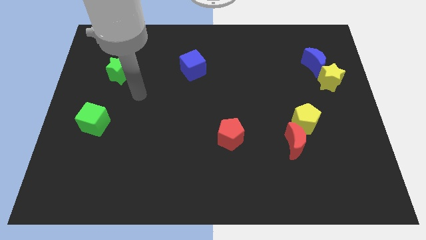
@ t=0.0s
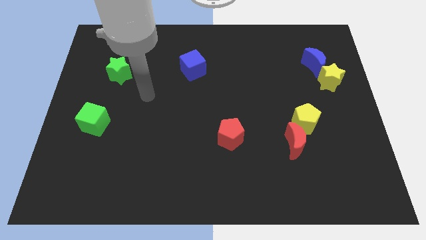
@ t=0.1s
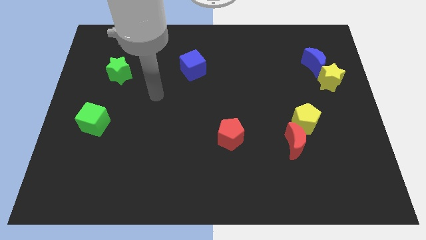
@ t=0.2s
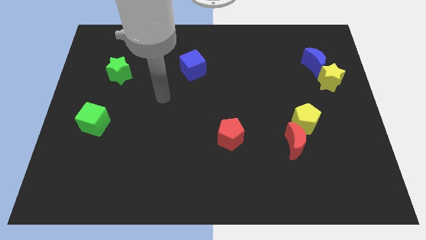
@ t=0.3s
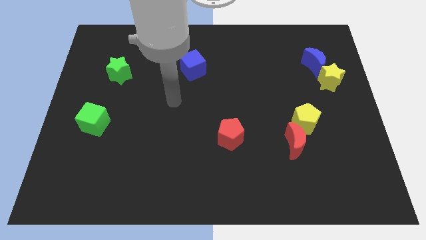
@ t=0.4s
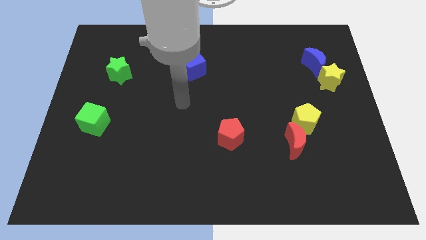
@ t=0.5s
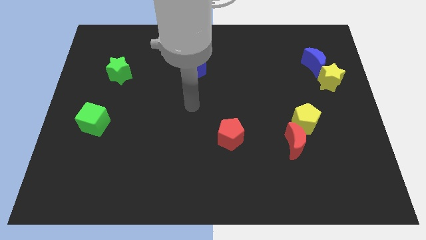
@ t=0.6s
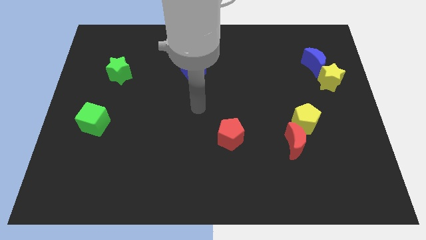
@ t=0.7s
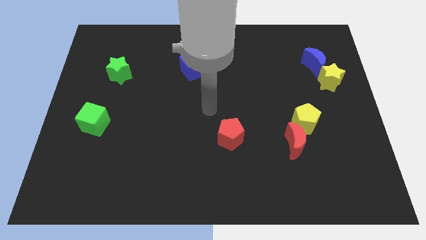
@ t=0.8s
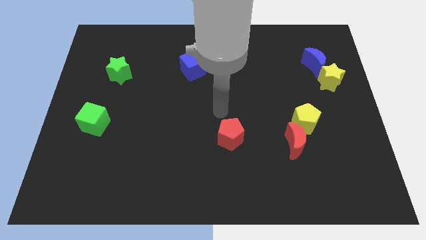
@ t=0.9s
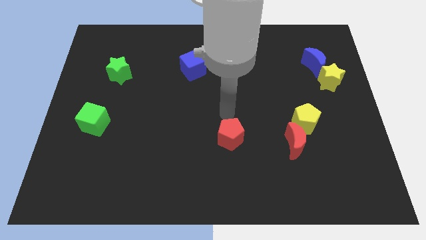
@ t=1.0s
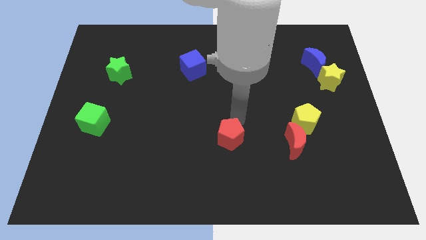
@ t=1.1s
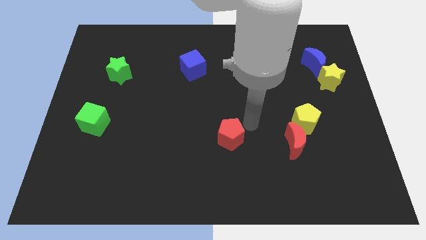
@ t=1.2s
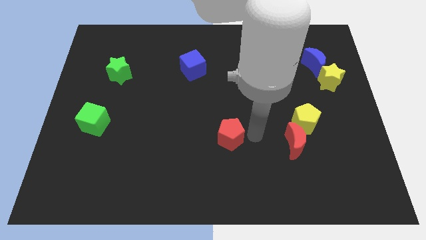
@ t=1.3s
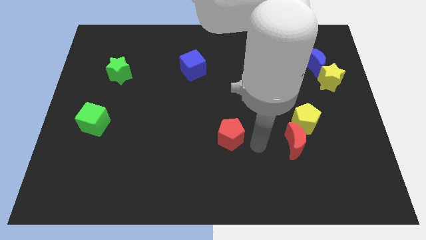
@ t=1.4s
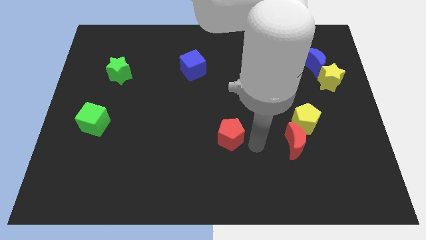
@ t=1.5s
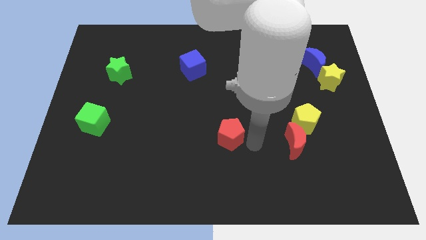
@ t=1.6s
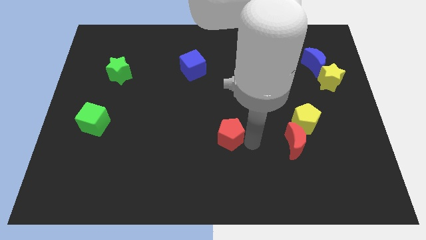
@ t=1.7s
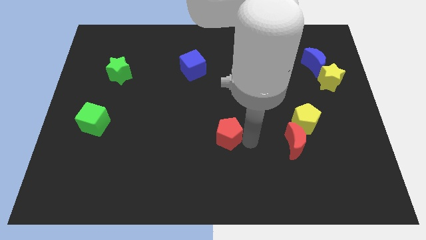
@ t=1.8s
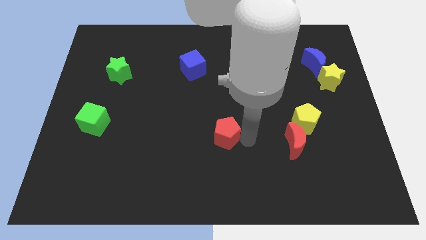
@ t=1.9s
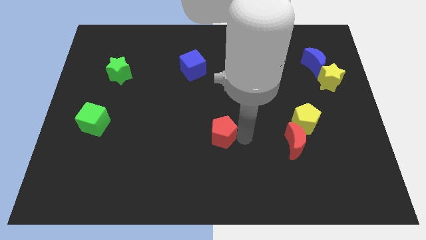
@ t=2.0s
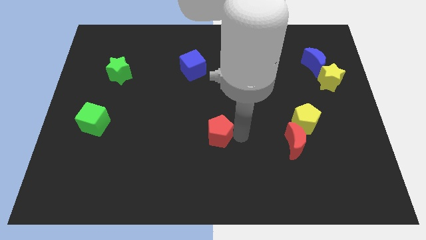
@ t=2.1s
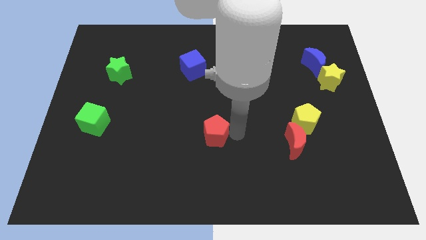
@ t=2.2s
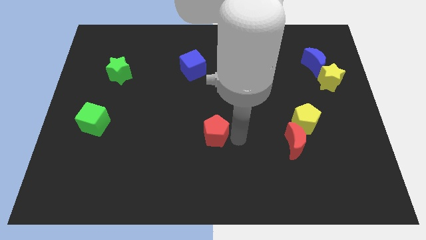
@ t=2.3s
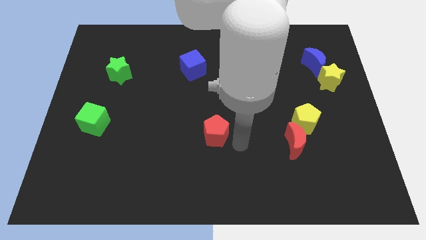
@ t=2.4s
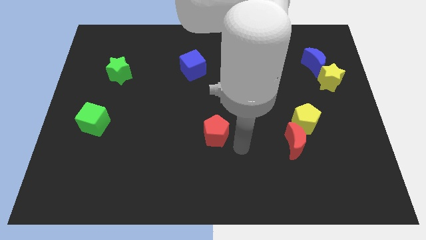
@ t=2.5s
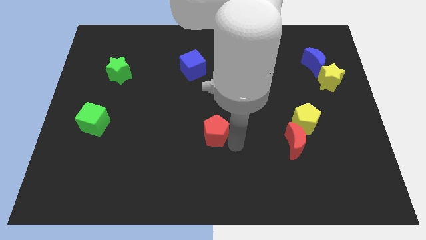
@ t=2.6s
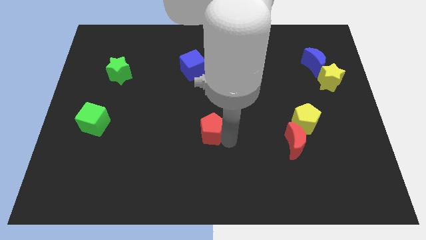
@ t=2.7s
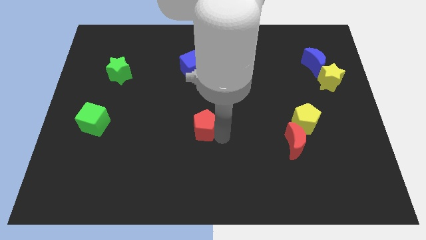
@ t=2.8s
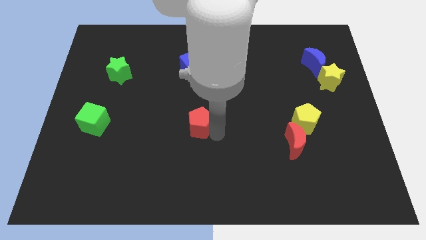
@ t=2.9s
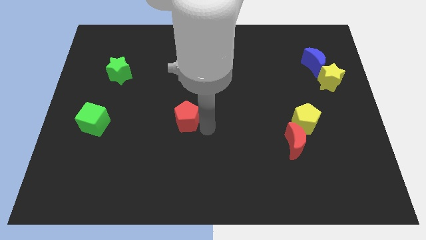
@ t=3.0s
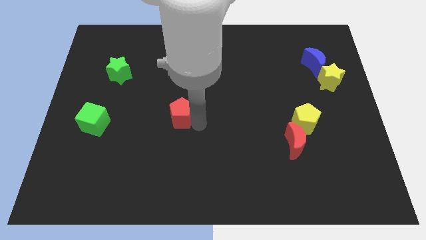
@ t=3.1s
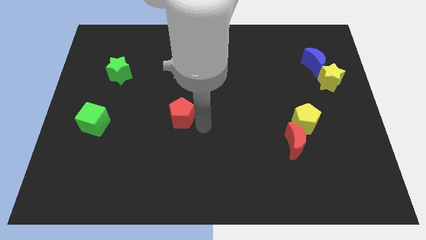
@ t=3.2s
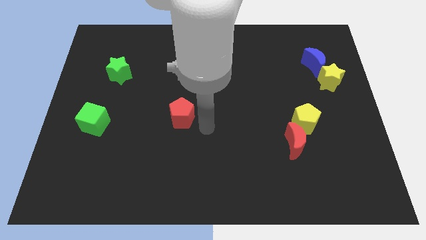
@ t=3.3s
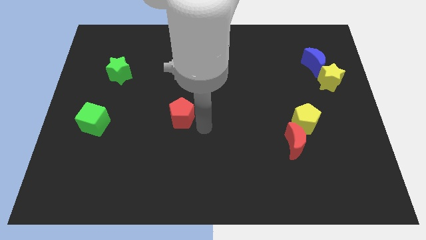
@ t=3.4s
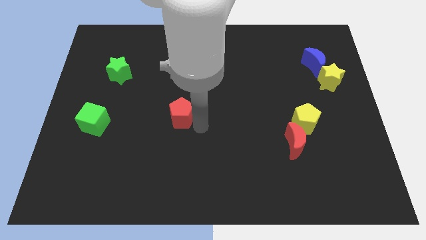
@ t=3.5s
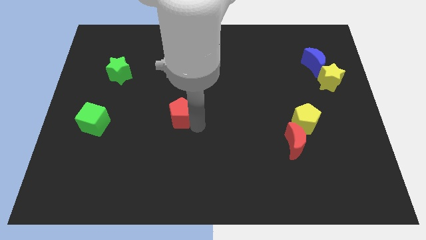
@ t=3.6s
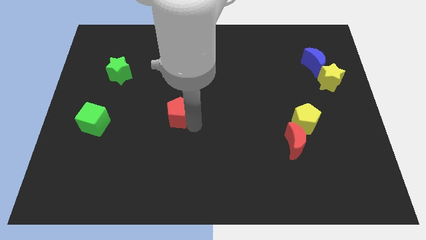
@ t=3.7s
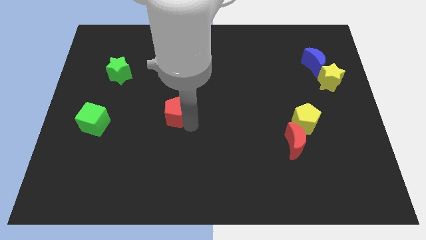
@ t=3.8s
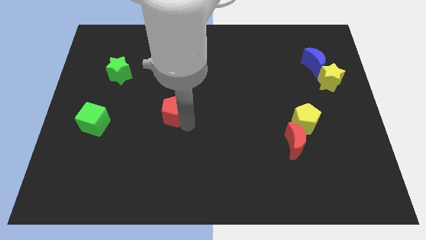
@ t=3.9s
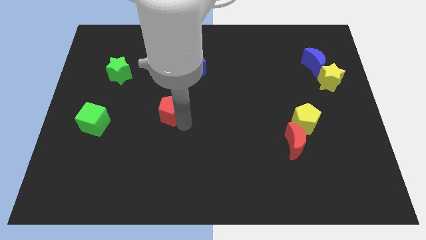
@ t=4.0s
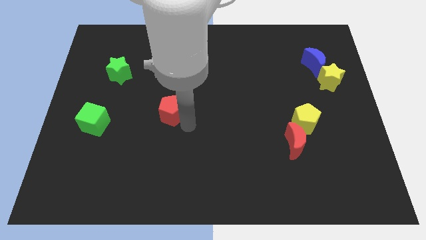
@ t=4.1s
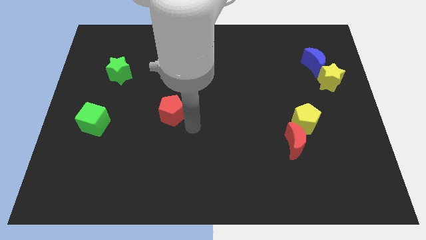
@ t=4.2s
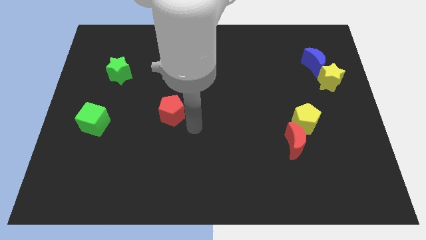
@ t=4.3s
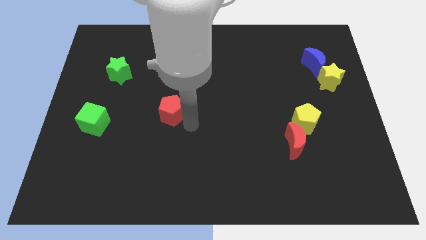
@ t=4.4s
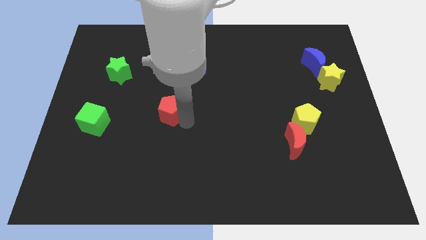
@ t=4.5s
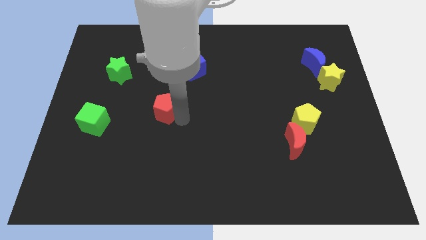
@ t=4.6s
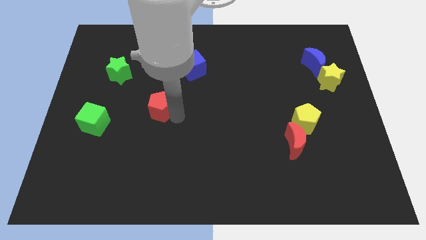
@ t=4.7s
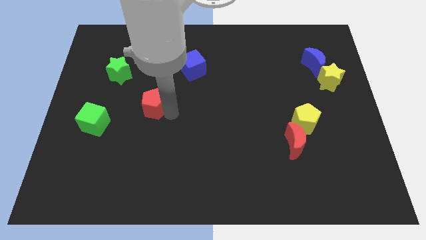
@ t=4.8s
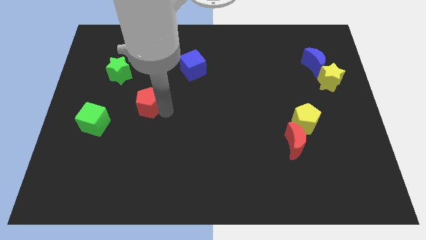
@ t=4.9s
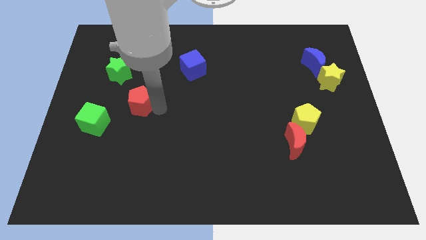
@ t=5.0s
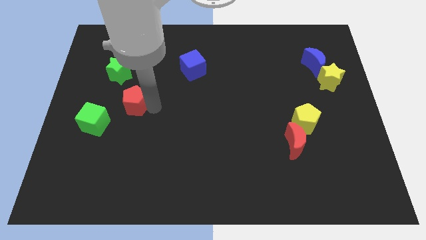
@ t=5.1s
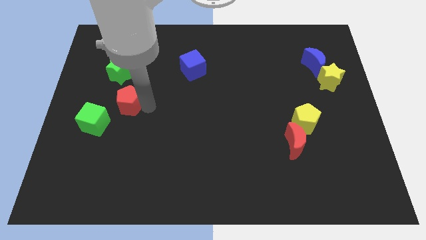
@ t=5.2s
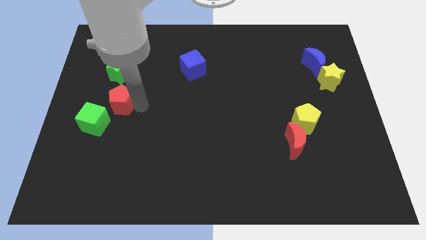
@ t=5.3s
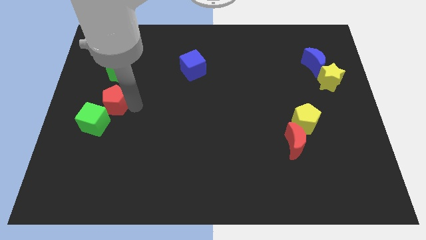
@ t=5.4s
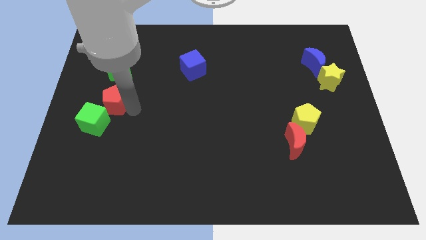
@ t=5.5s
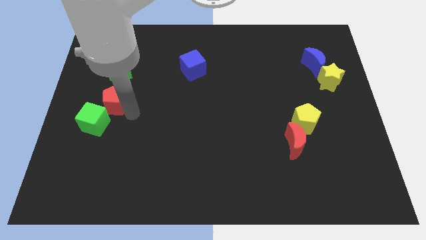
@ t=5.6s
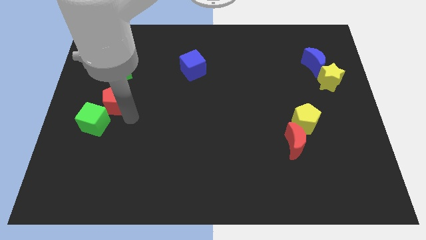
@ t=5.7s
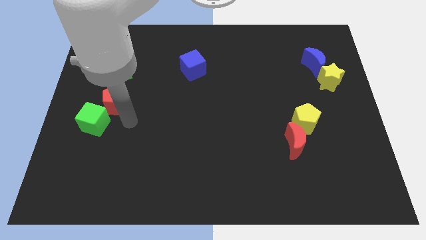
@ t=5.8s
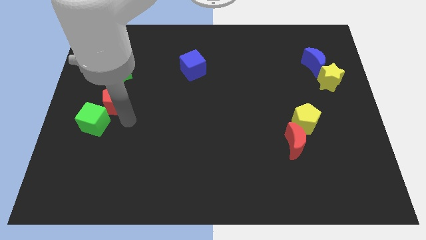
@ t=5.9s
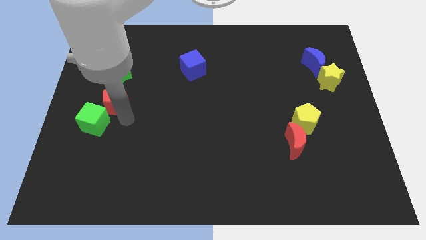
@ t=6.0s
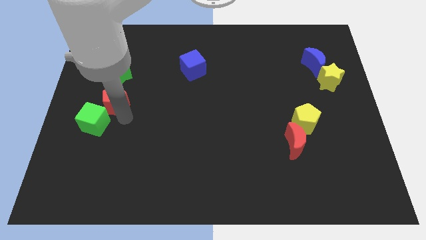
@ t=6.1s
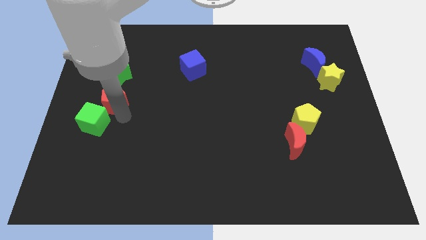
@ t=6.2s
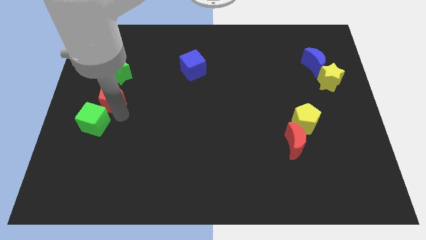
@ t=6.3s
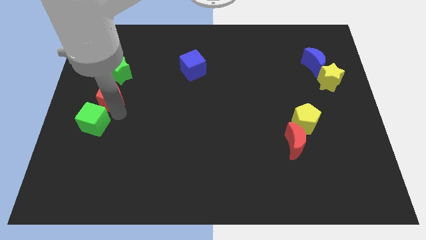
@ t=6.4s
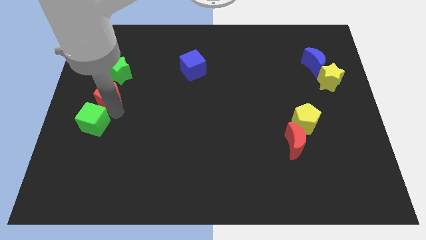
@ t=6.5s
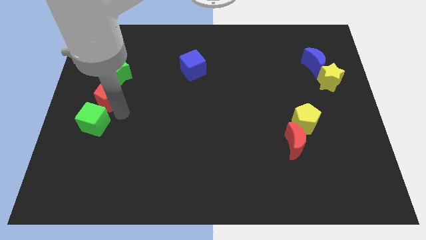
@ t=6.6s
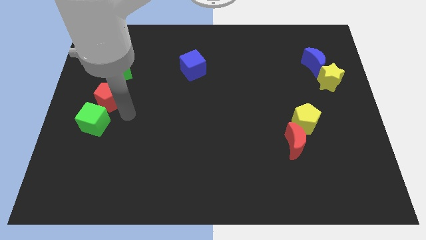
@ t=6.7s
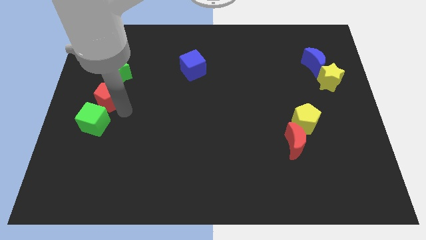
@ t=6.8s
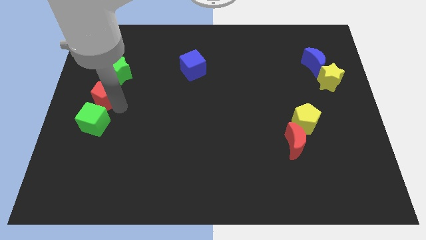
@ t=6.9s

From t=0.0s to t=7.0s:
put the red pentagon to the bottom left side of the green star
